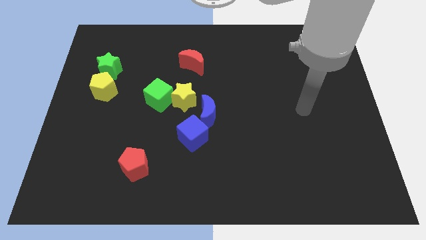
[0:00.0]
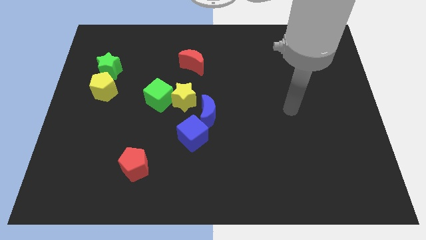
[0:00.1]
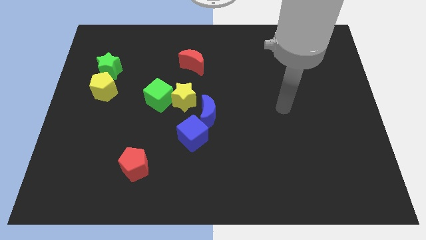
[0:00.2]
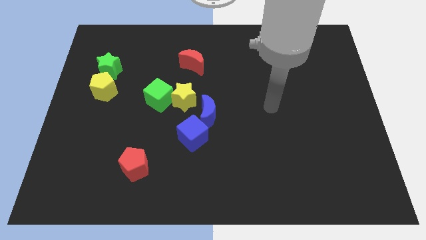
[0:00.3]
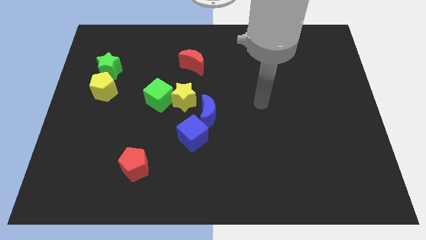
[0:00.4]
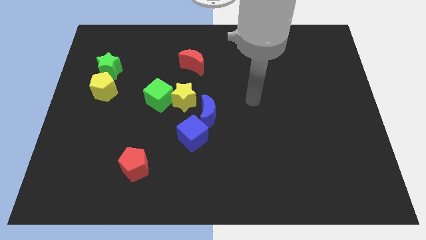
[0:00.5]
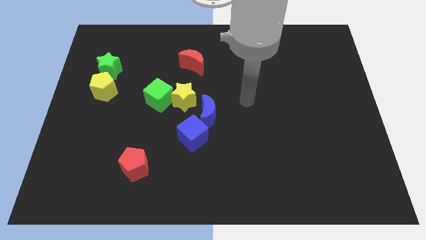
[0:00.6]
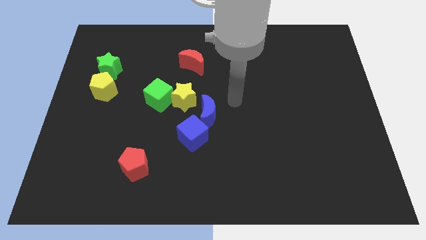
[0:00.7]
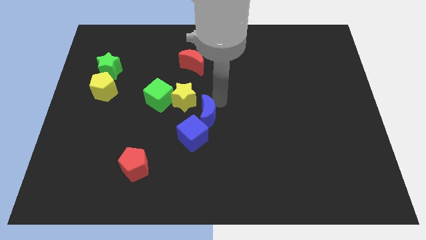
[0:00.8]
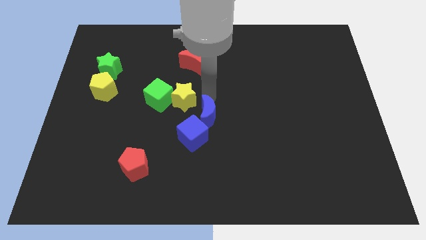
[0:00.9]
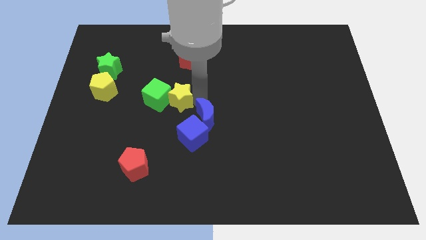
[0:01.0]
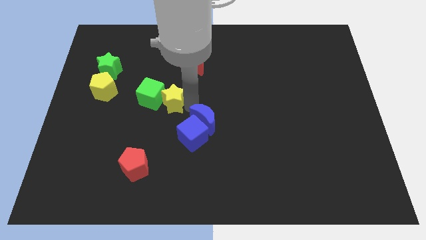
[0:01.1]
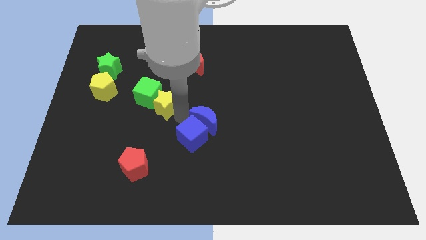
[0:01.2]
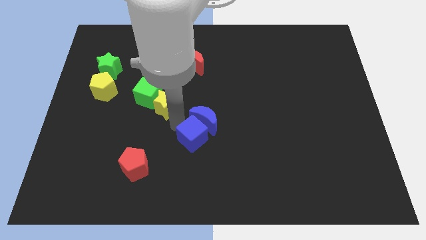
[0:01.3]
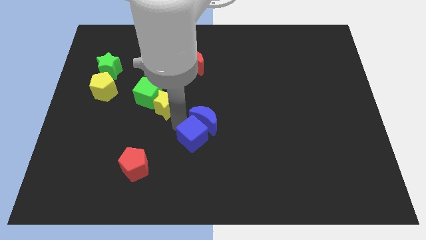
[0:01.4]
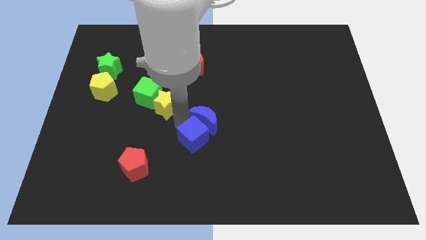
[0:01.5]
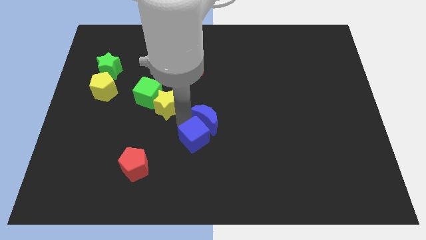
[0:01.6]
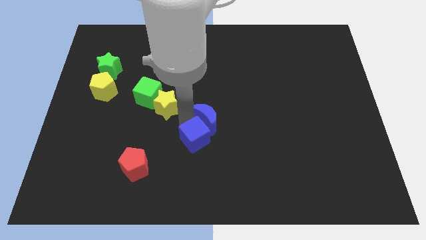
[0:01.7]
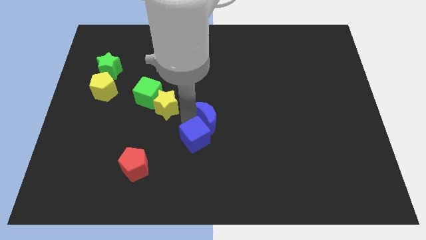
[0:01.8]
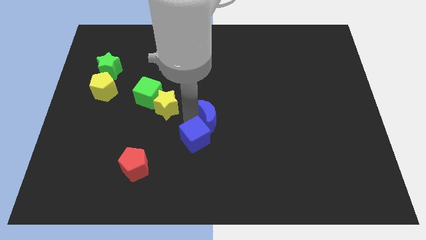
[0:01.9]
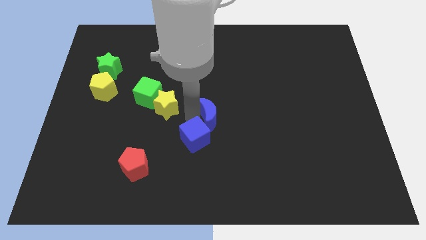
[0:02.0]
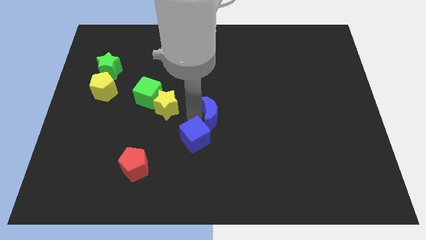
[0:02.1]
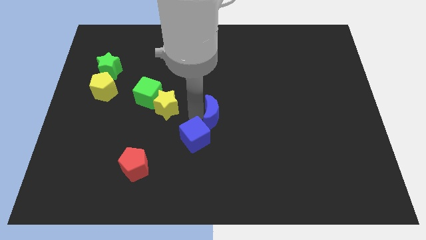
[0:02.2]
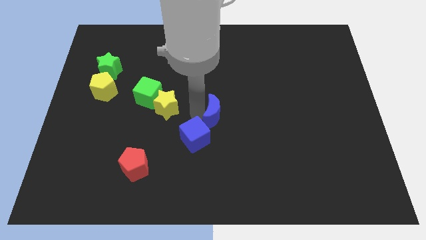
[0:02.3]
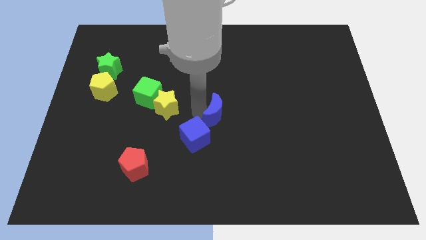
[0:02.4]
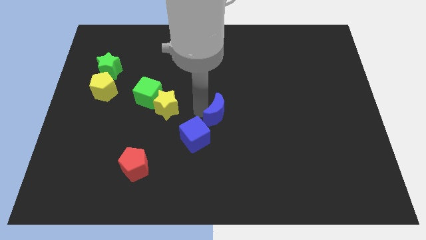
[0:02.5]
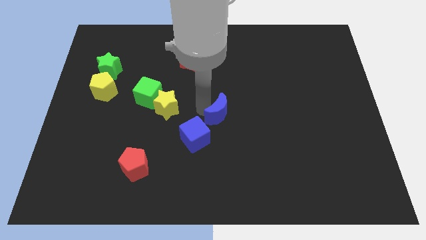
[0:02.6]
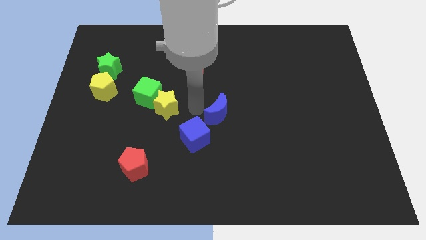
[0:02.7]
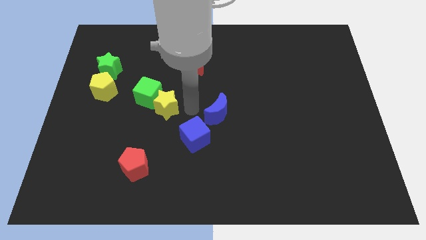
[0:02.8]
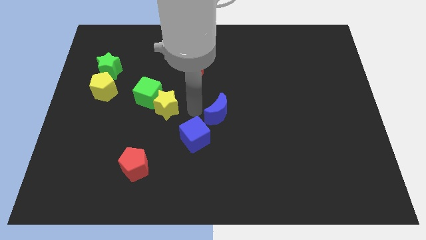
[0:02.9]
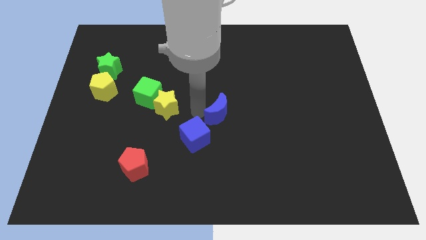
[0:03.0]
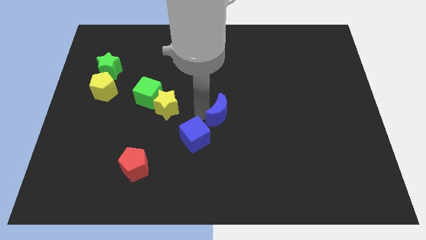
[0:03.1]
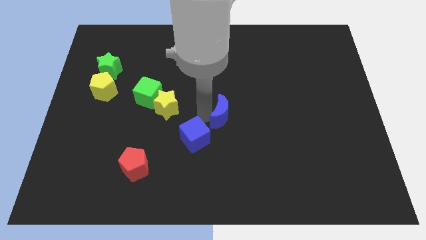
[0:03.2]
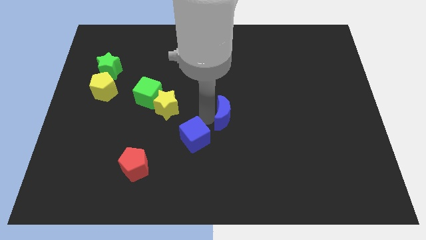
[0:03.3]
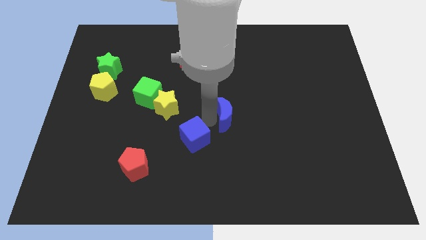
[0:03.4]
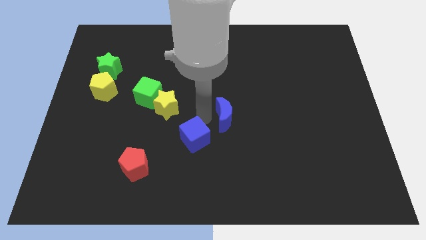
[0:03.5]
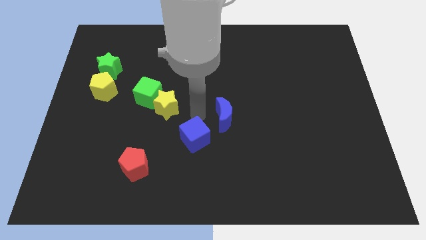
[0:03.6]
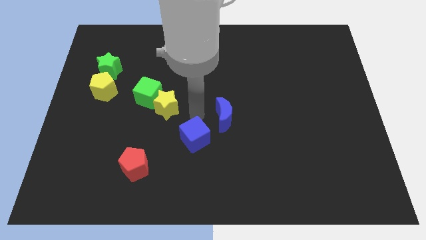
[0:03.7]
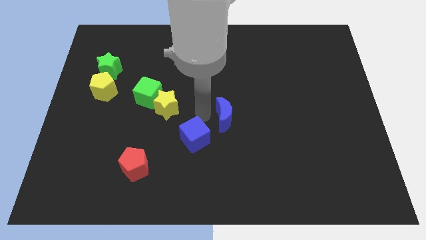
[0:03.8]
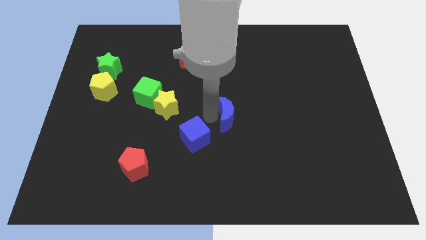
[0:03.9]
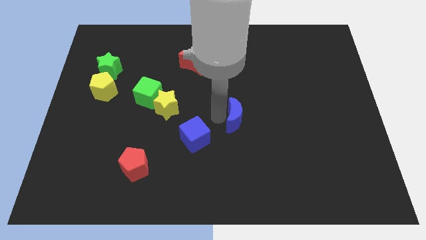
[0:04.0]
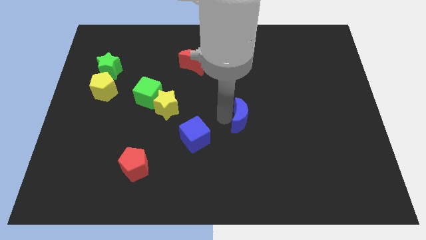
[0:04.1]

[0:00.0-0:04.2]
move the blue moon right slightly

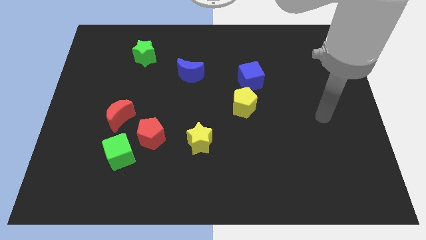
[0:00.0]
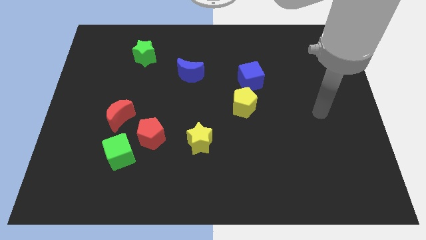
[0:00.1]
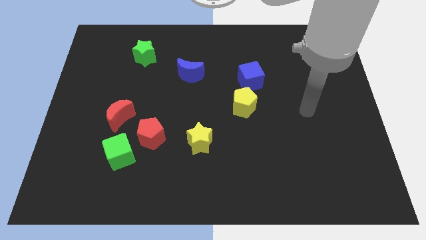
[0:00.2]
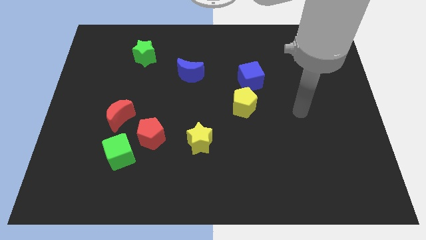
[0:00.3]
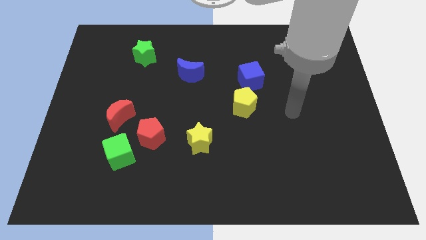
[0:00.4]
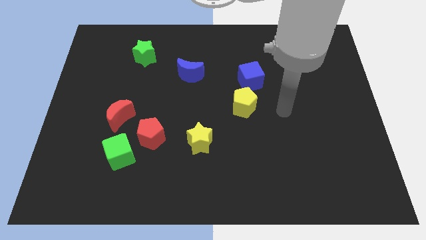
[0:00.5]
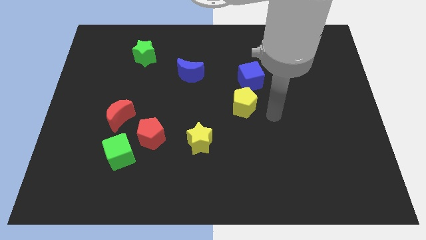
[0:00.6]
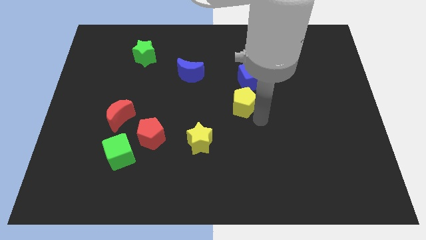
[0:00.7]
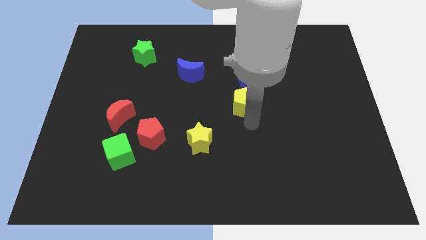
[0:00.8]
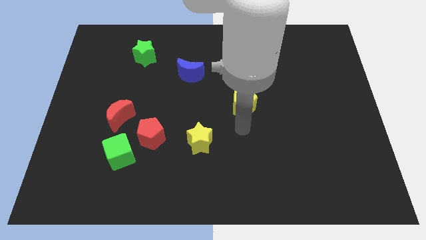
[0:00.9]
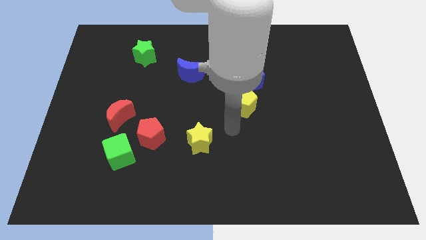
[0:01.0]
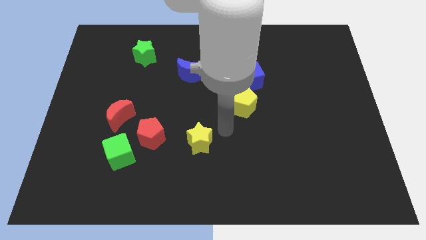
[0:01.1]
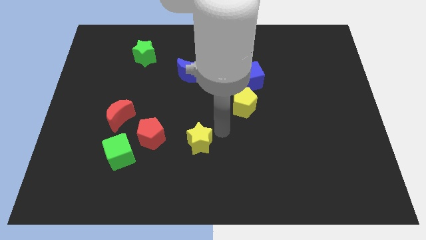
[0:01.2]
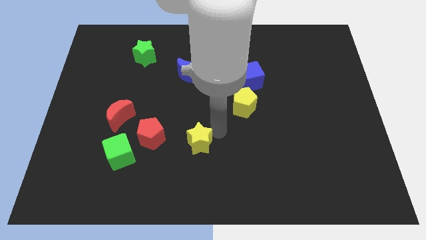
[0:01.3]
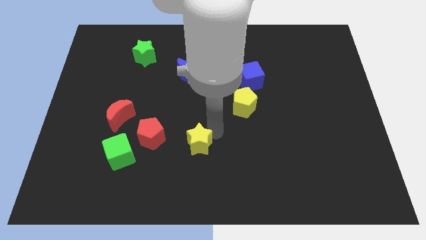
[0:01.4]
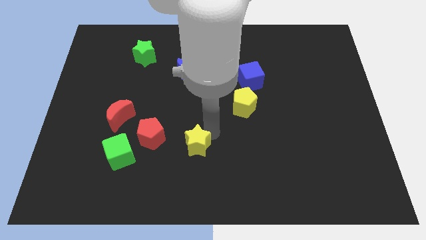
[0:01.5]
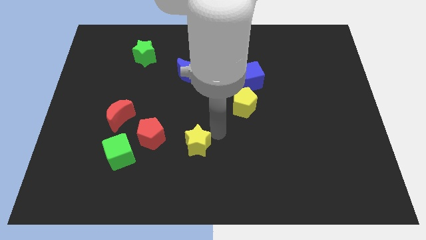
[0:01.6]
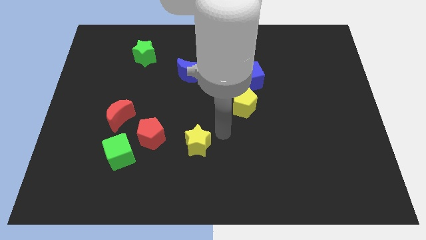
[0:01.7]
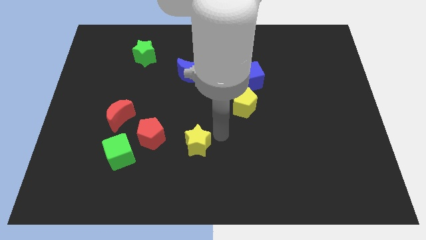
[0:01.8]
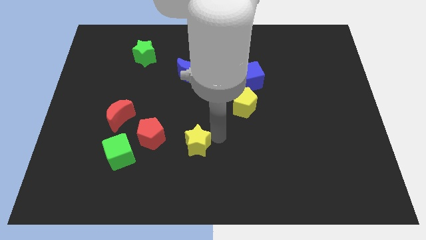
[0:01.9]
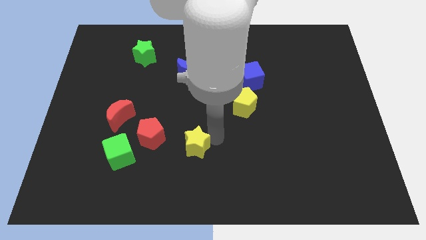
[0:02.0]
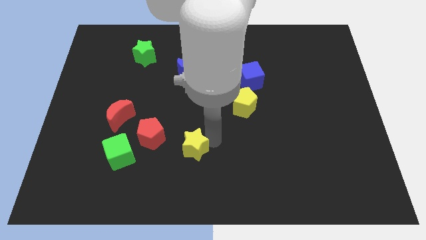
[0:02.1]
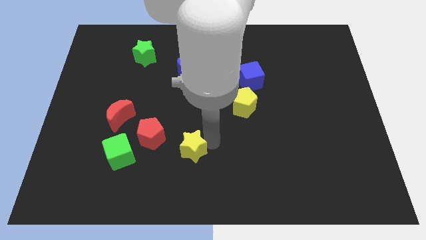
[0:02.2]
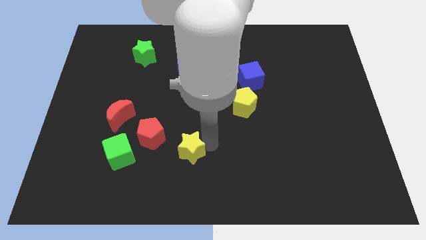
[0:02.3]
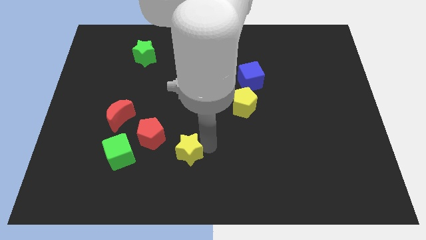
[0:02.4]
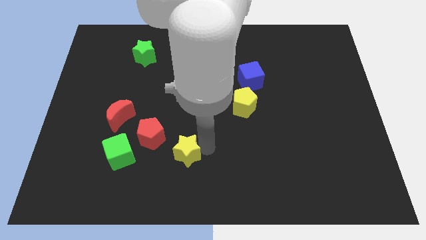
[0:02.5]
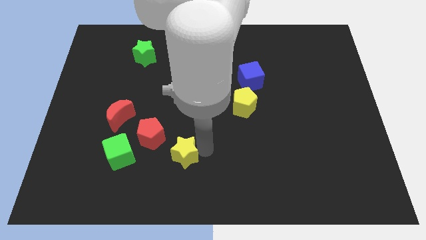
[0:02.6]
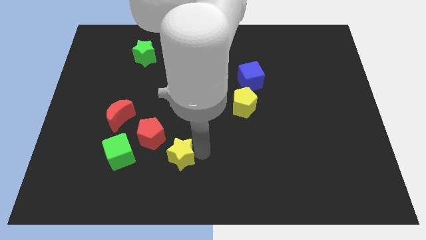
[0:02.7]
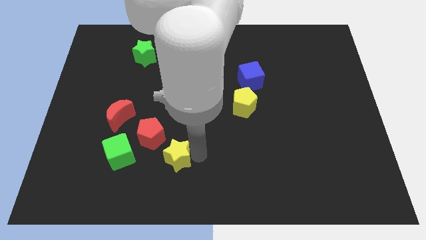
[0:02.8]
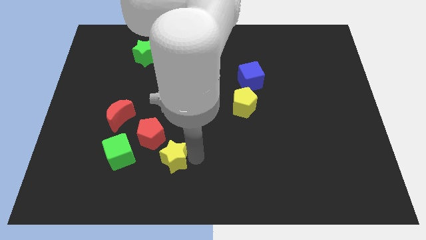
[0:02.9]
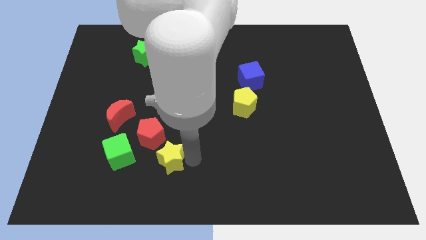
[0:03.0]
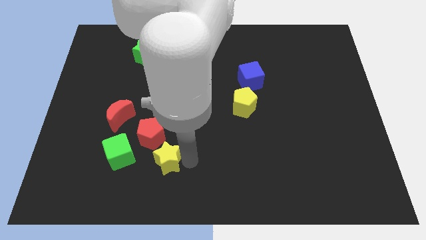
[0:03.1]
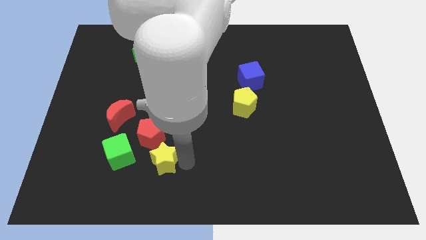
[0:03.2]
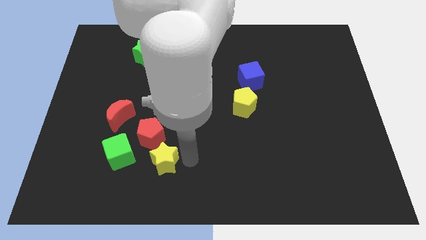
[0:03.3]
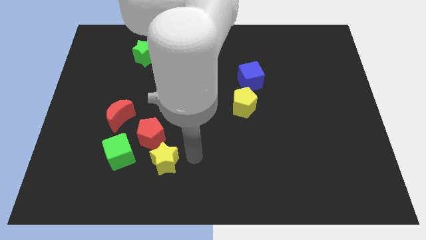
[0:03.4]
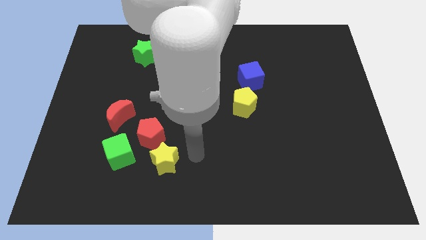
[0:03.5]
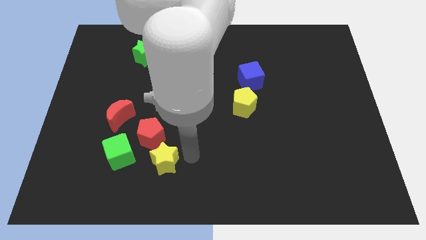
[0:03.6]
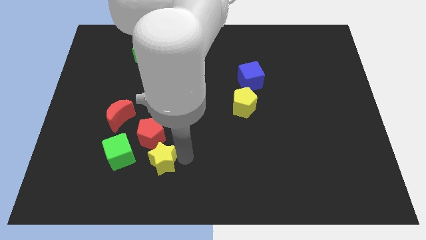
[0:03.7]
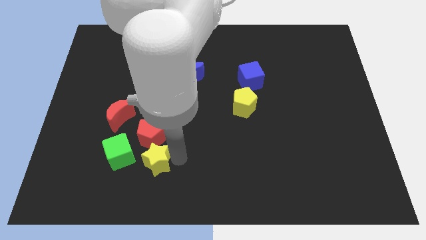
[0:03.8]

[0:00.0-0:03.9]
slide the yellow star a little left
